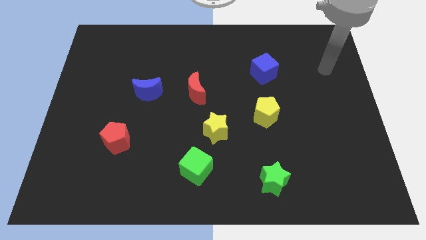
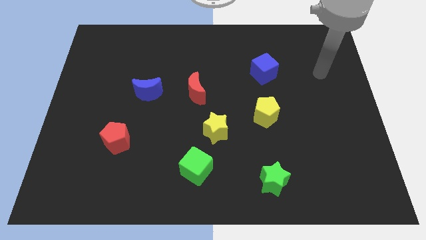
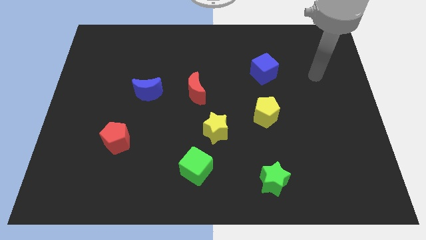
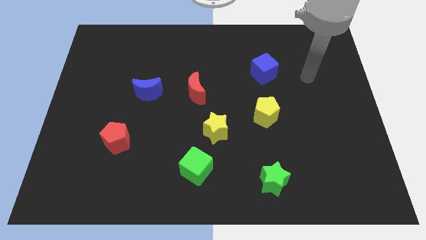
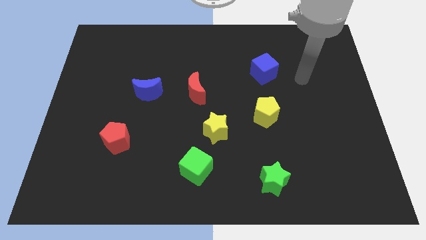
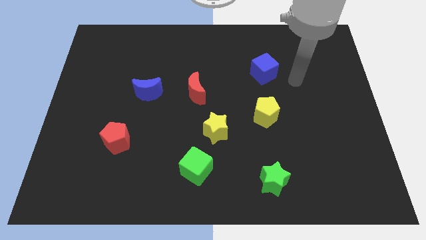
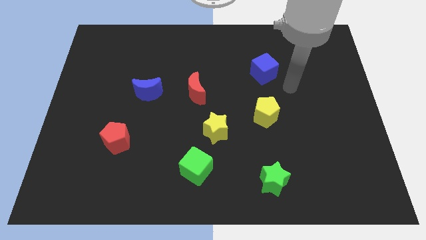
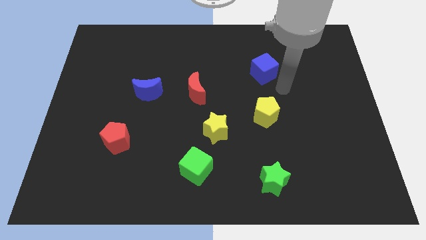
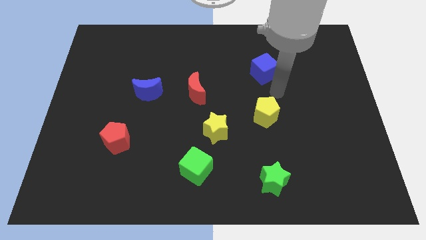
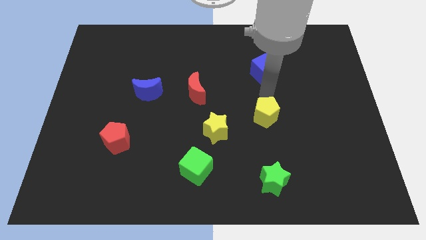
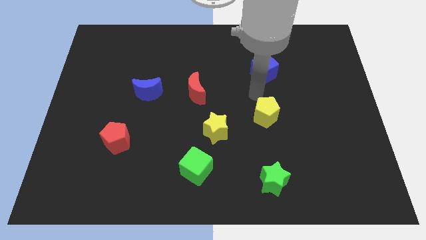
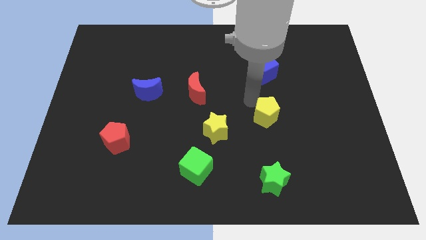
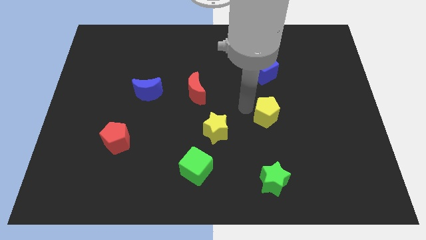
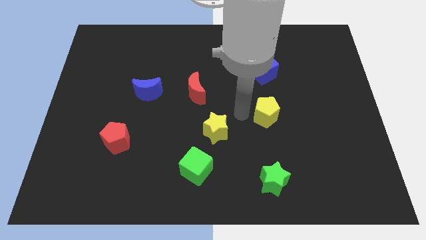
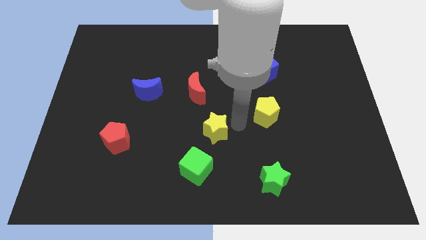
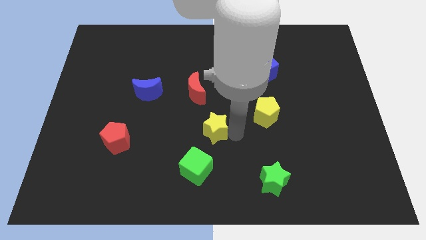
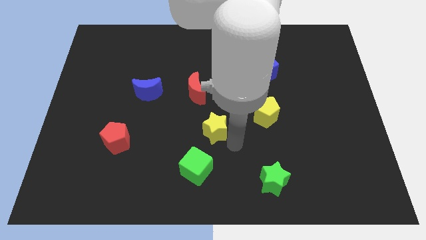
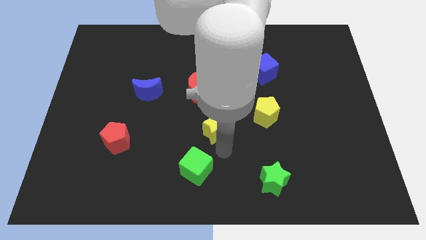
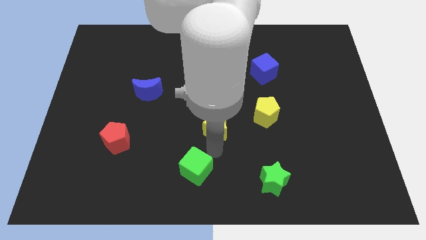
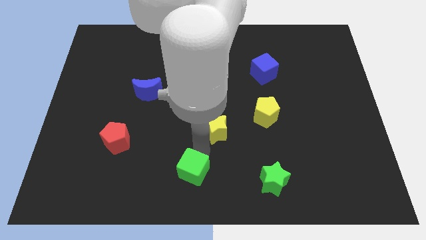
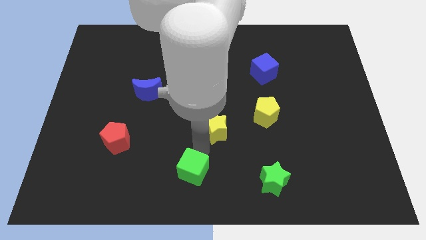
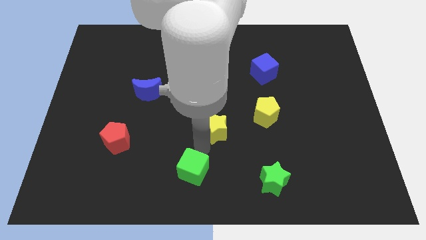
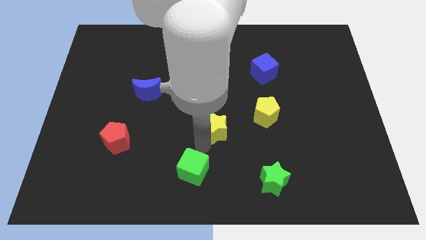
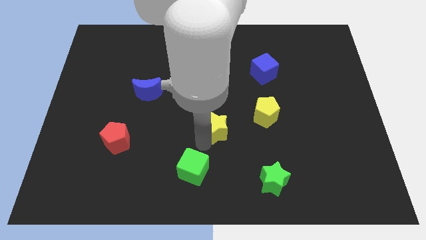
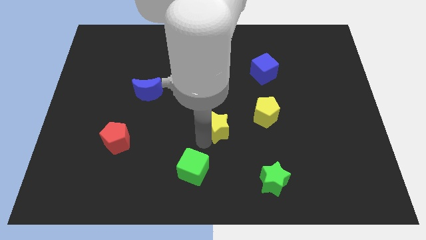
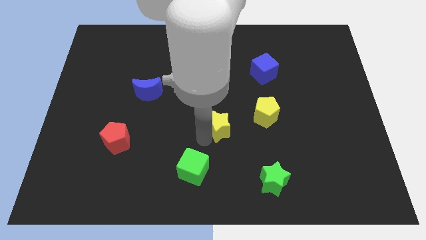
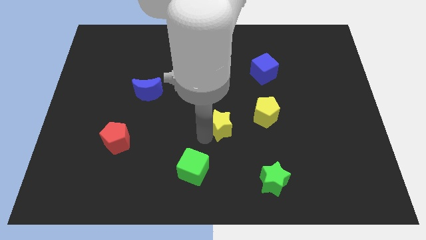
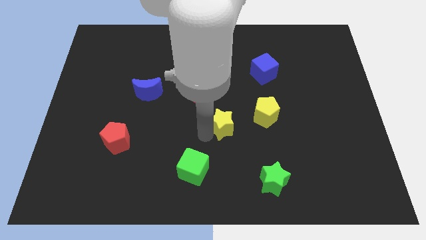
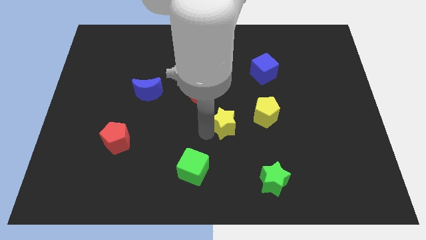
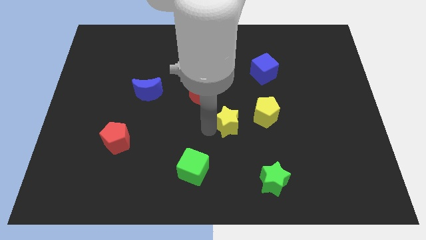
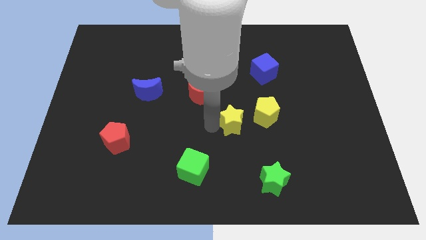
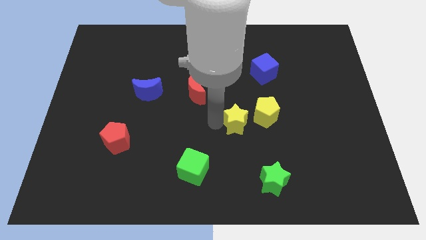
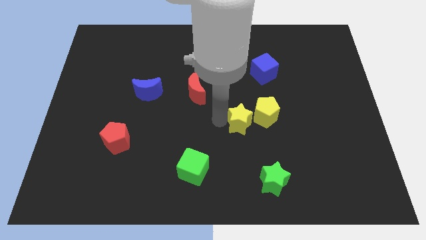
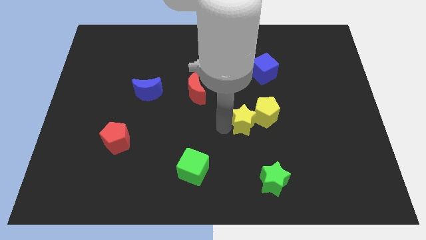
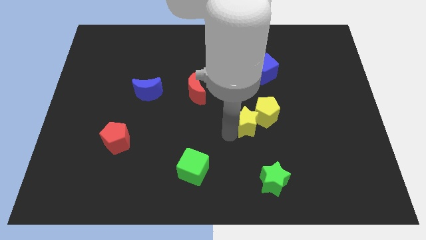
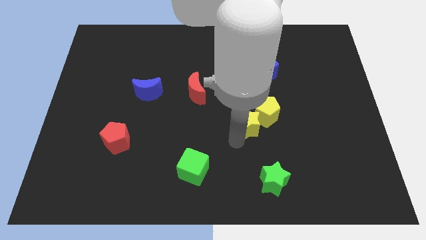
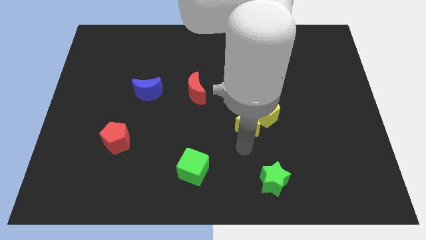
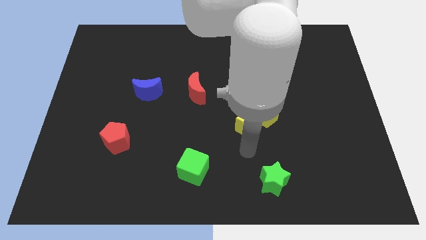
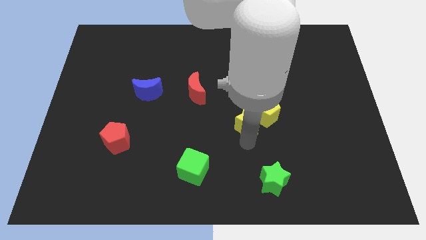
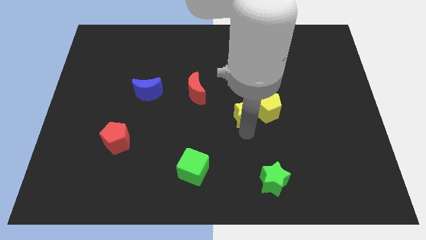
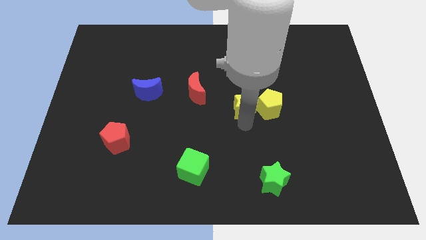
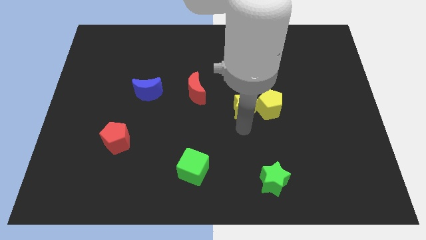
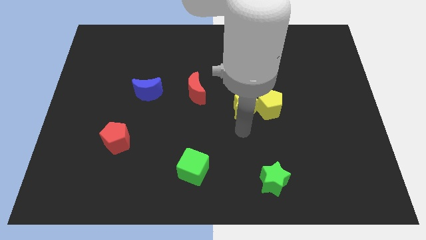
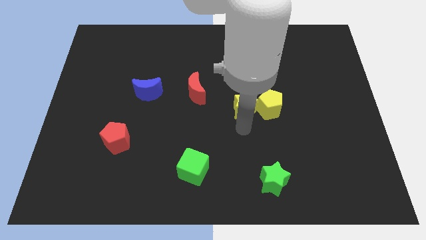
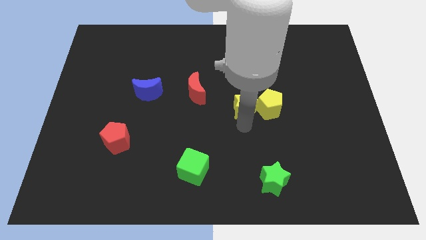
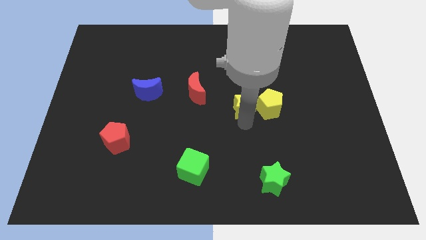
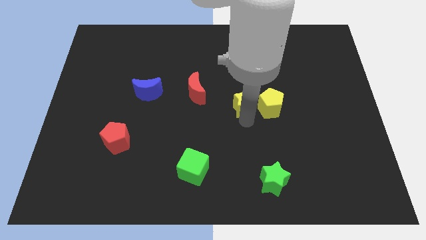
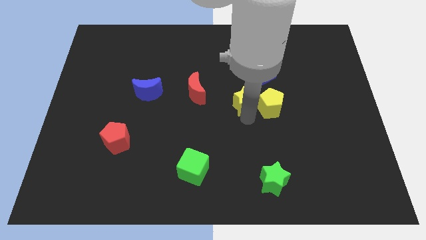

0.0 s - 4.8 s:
slide the yellow star to the bottom left side of the blue cube

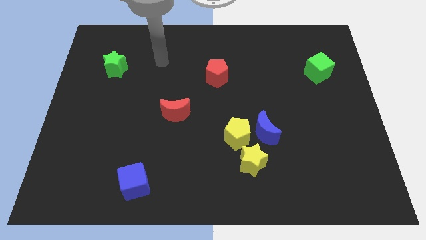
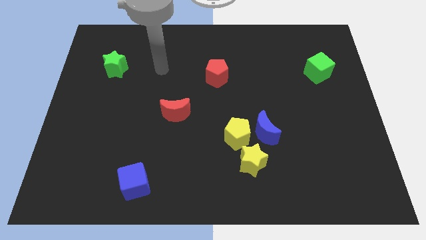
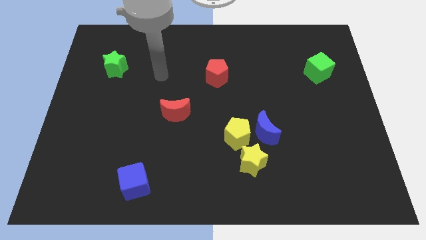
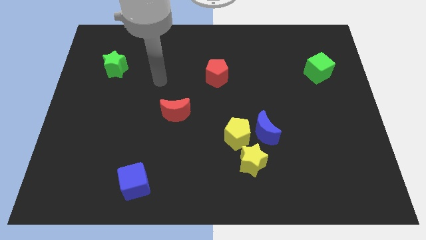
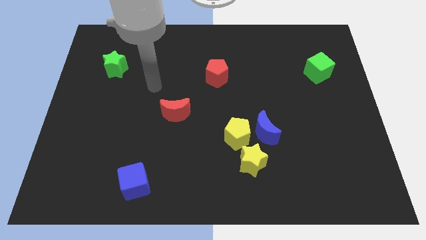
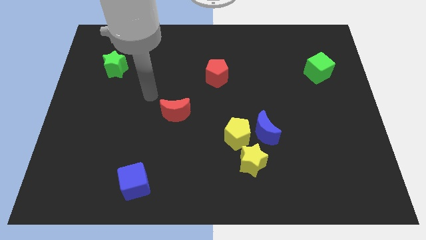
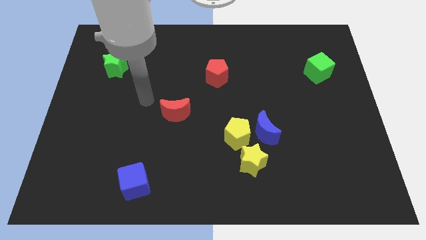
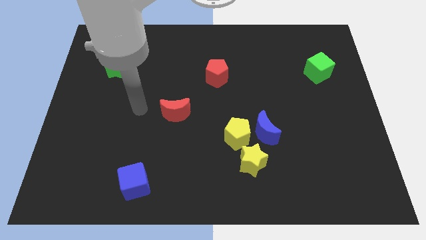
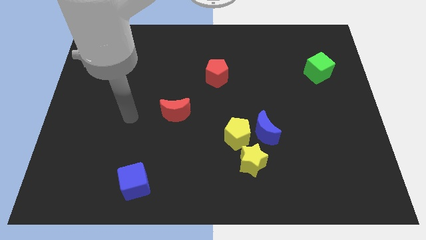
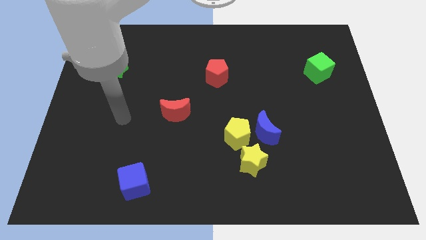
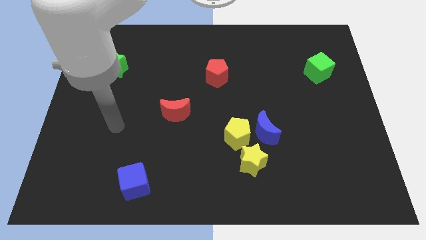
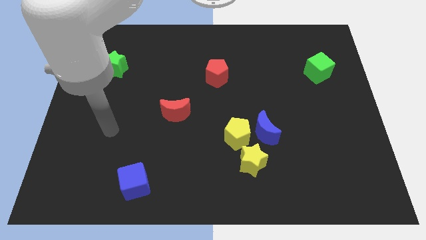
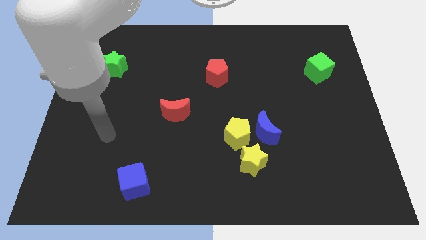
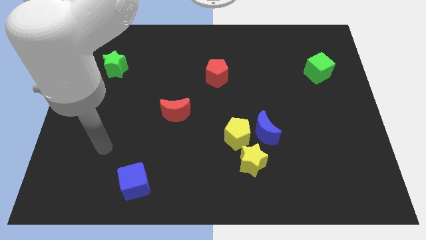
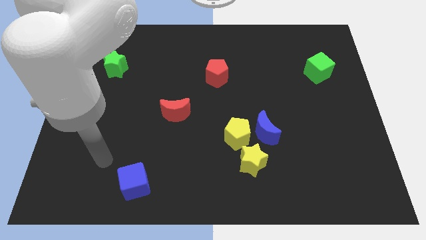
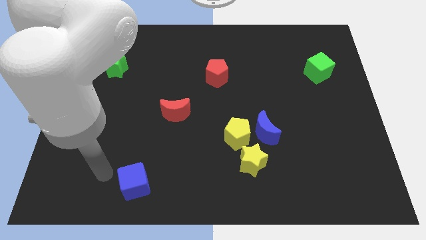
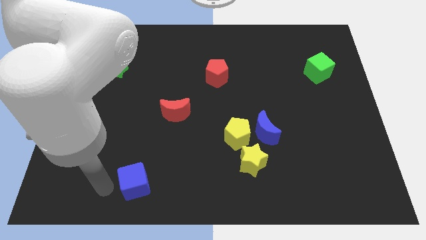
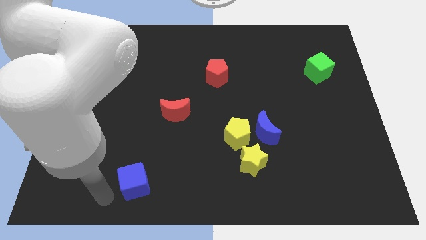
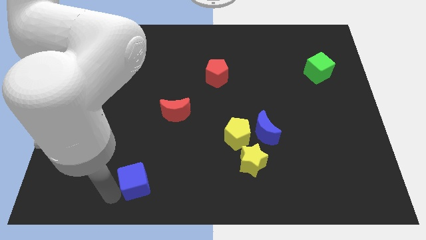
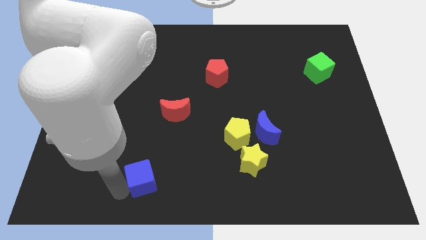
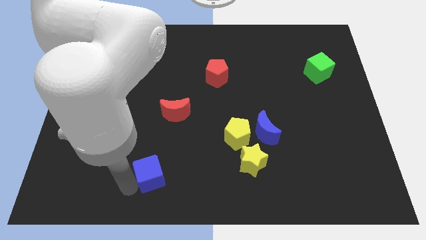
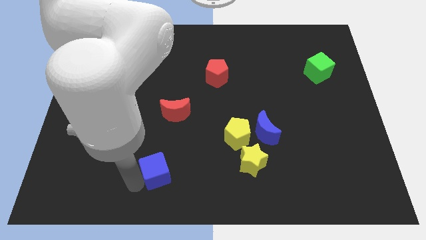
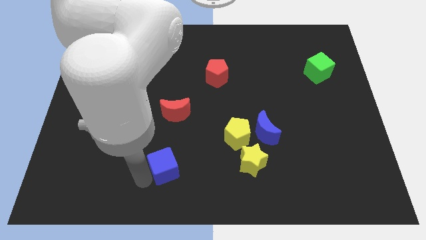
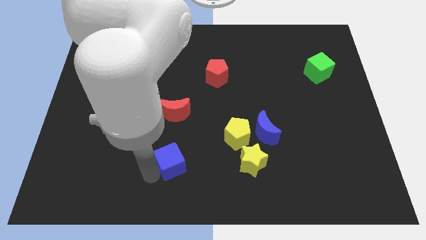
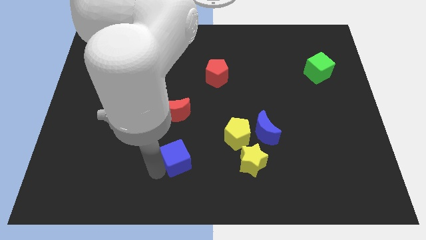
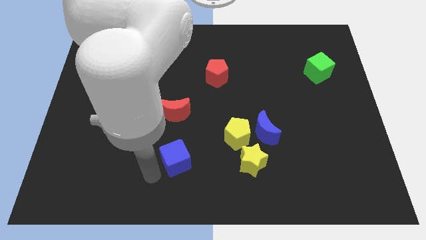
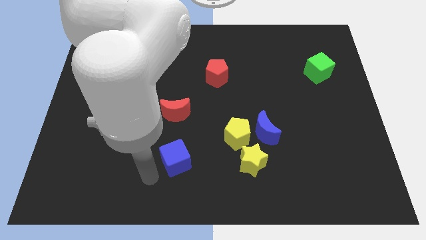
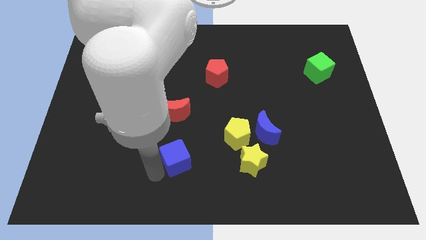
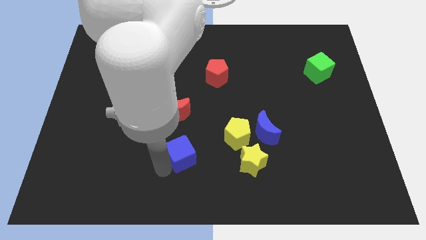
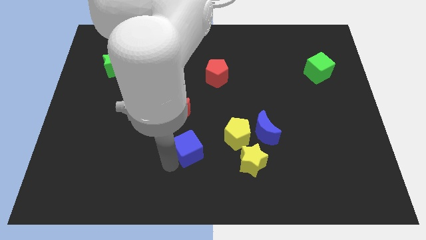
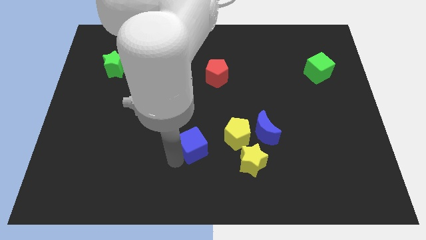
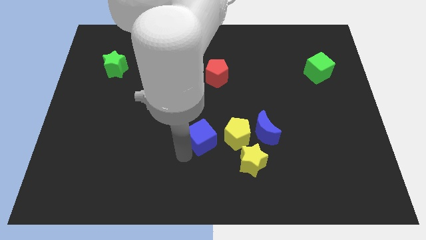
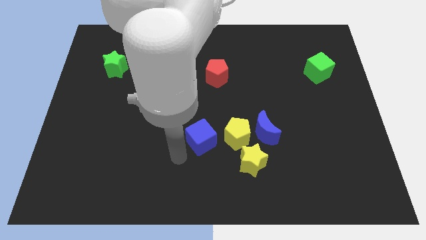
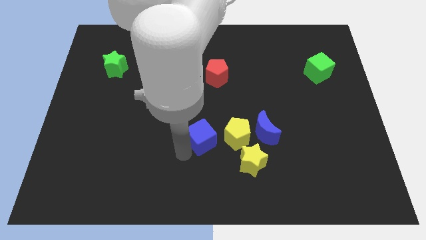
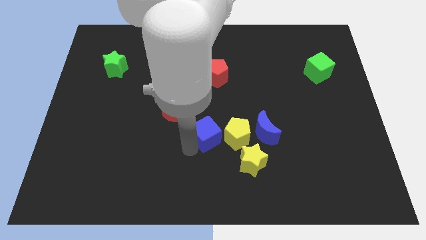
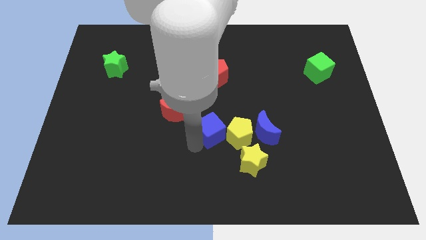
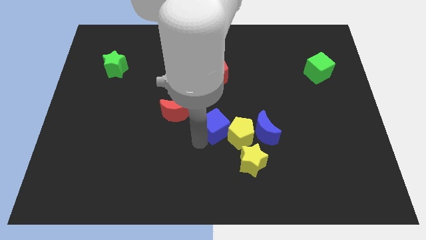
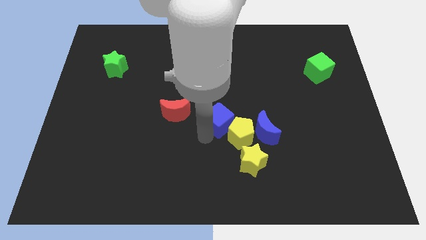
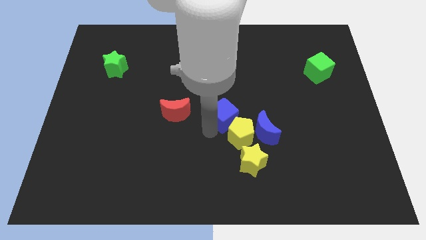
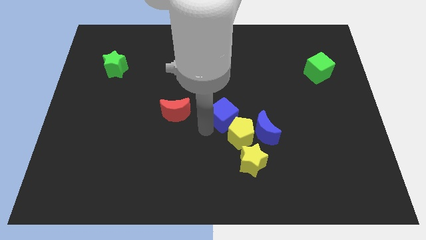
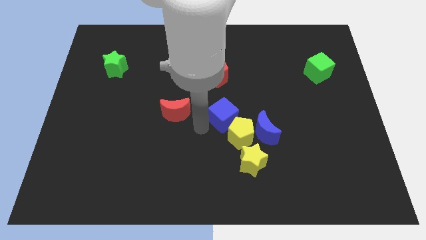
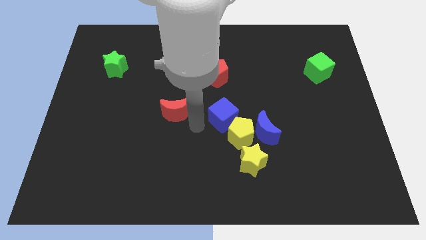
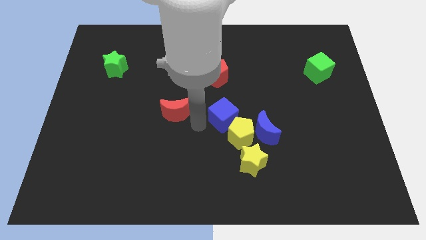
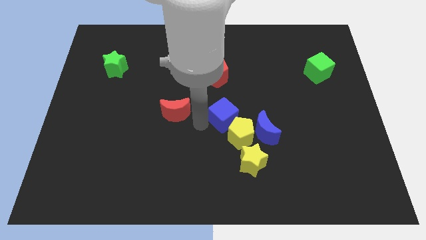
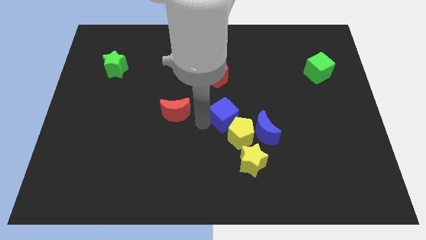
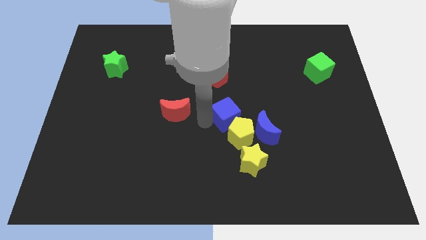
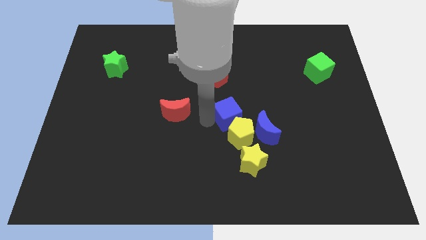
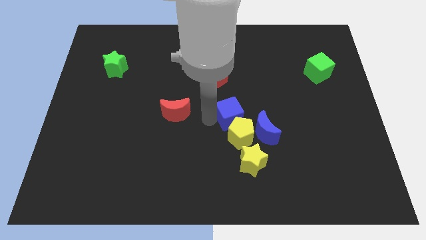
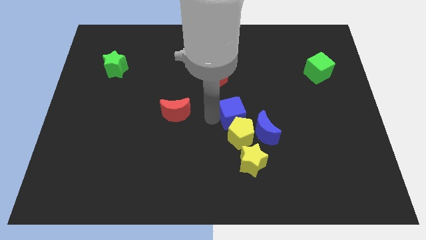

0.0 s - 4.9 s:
push the blue cube diagonally up and to the right of the yellow pentagon
